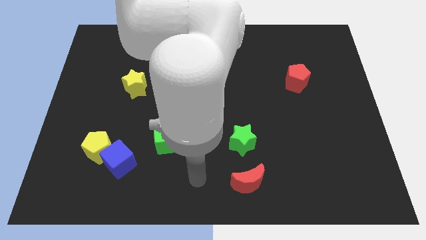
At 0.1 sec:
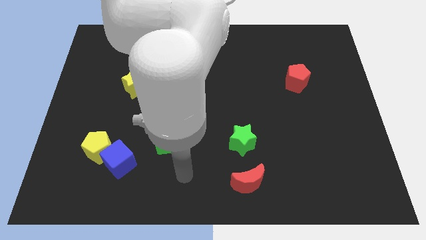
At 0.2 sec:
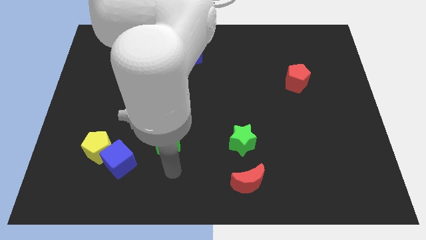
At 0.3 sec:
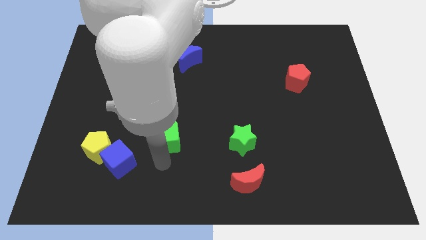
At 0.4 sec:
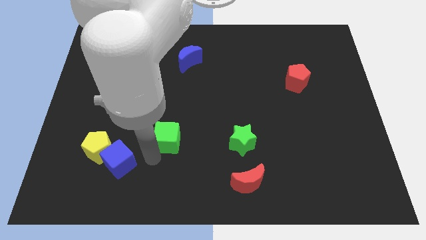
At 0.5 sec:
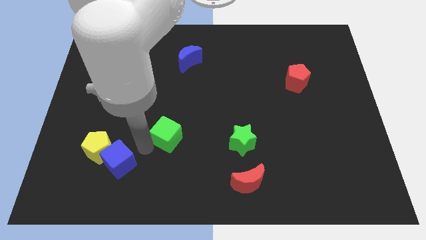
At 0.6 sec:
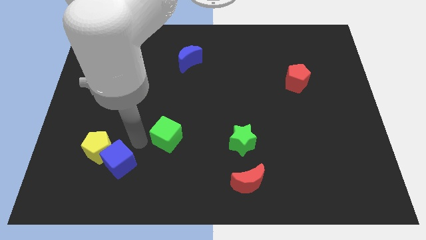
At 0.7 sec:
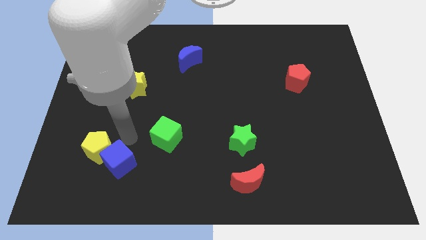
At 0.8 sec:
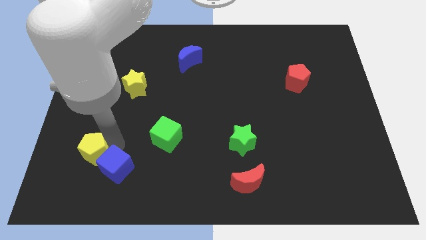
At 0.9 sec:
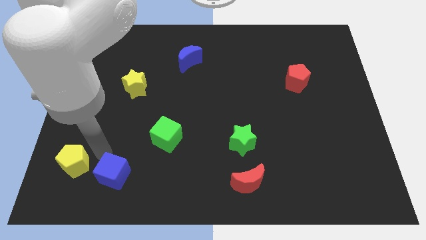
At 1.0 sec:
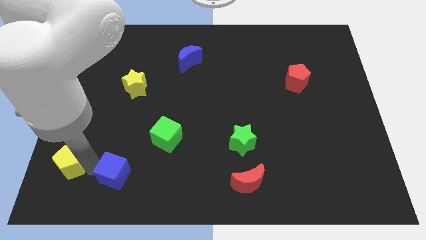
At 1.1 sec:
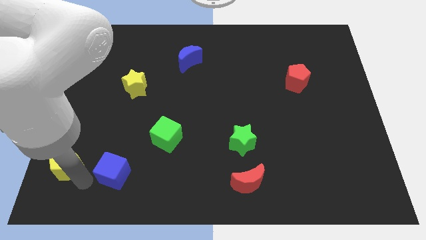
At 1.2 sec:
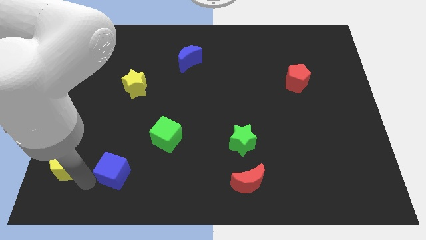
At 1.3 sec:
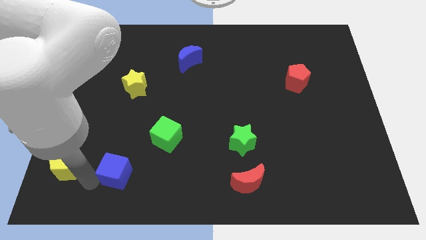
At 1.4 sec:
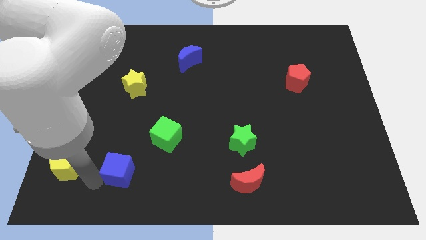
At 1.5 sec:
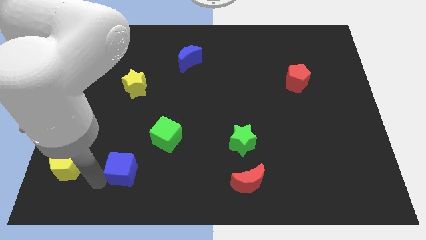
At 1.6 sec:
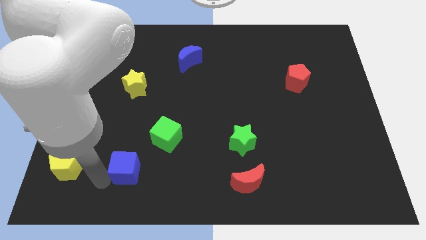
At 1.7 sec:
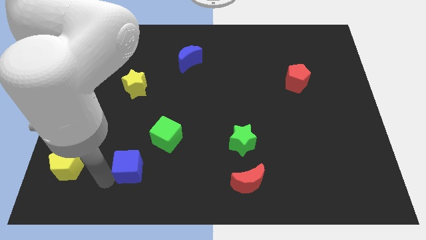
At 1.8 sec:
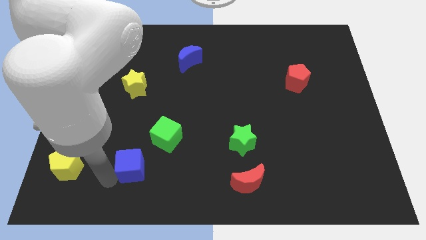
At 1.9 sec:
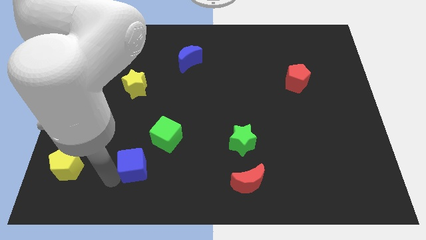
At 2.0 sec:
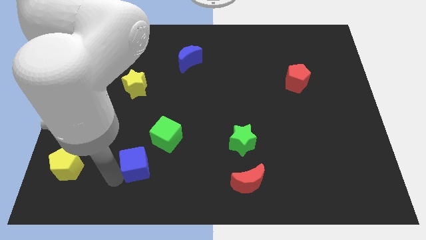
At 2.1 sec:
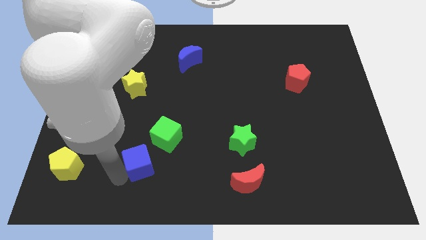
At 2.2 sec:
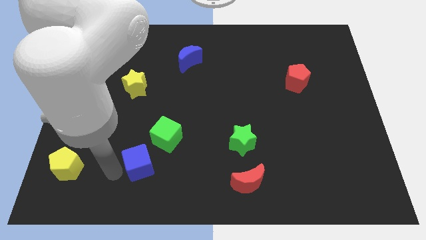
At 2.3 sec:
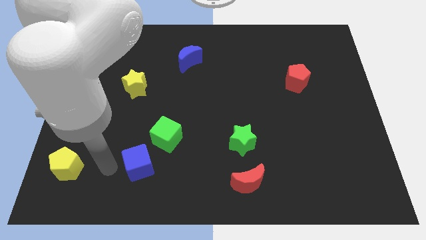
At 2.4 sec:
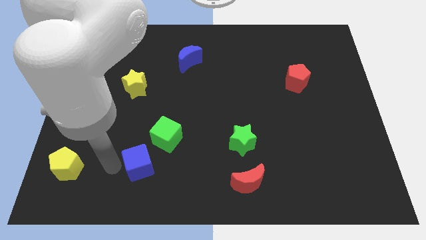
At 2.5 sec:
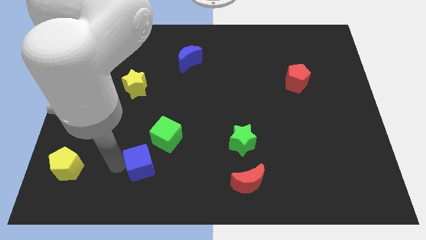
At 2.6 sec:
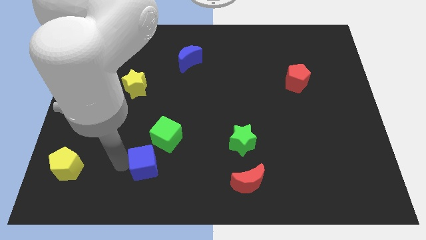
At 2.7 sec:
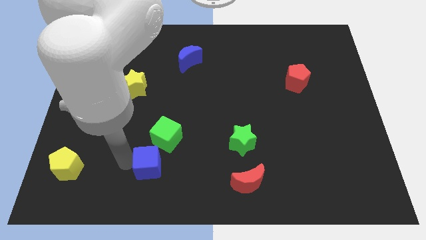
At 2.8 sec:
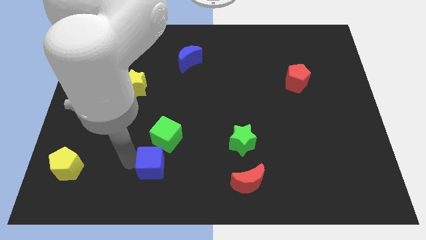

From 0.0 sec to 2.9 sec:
slightly push the blue cube to the right

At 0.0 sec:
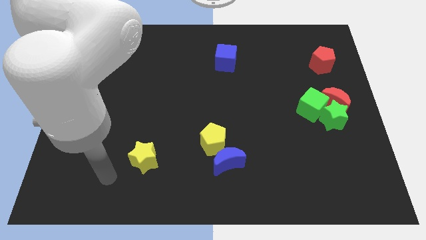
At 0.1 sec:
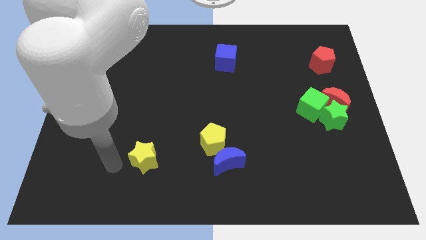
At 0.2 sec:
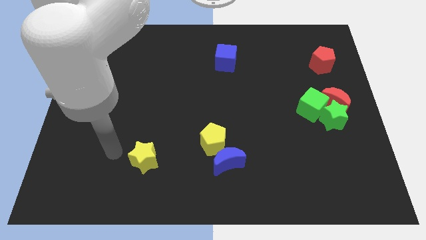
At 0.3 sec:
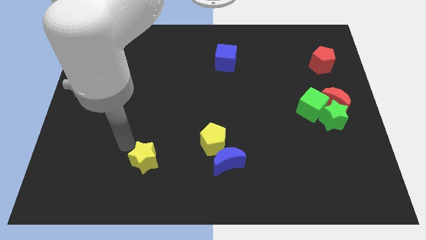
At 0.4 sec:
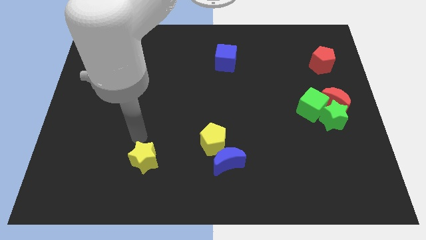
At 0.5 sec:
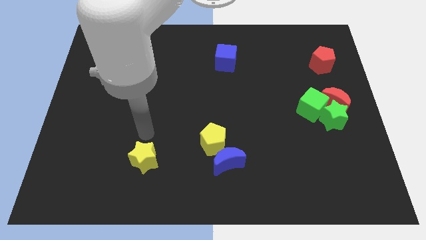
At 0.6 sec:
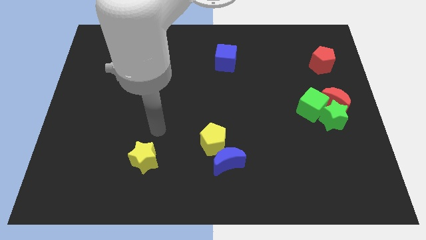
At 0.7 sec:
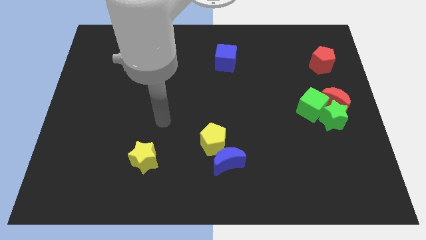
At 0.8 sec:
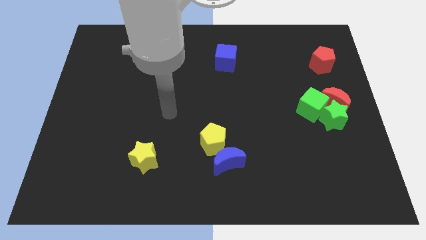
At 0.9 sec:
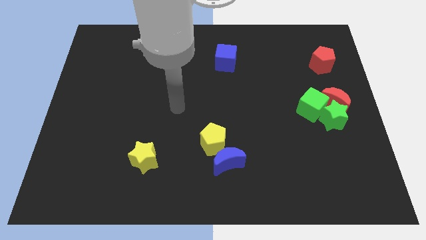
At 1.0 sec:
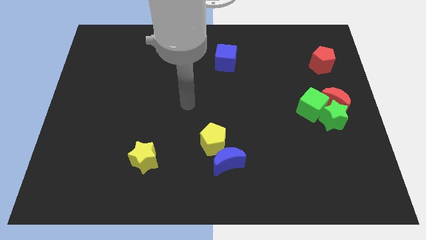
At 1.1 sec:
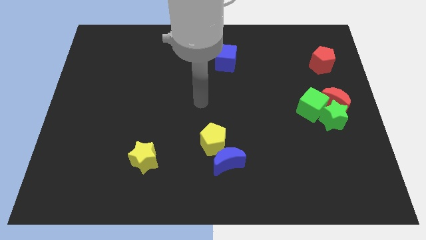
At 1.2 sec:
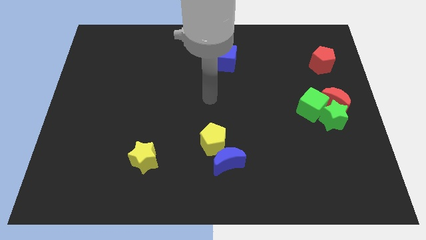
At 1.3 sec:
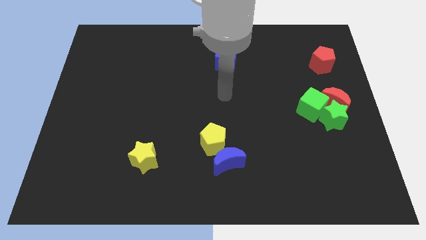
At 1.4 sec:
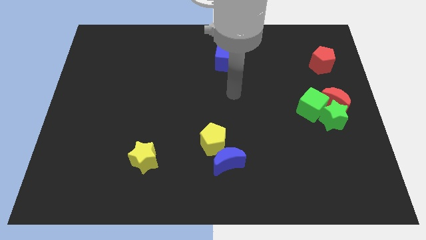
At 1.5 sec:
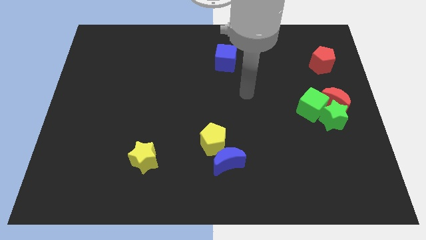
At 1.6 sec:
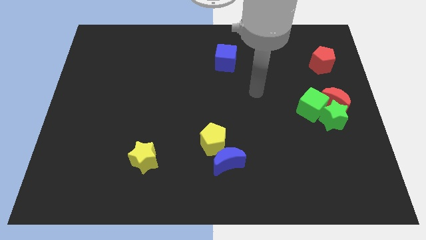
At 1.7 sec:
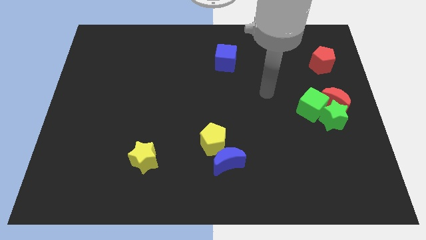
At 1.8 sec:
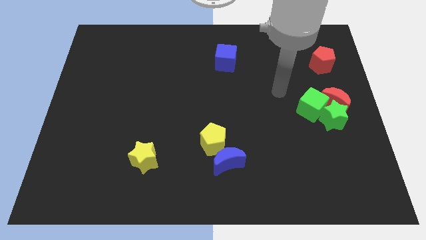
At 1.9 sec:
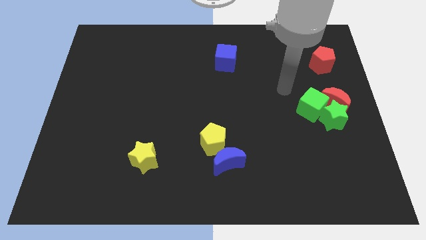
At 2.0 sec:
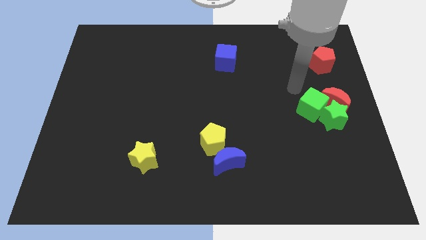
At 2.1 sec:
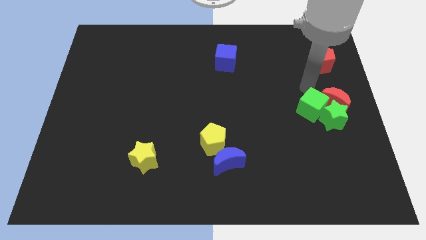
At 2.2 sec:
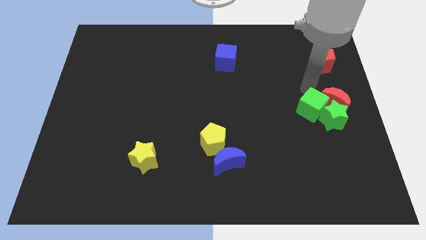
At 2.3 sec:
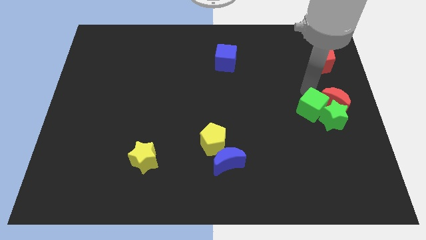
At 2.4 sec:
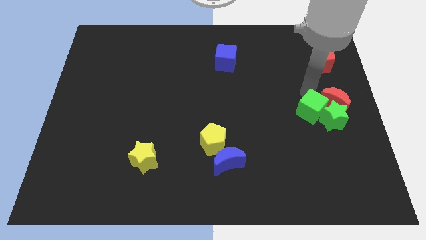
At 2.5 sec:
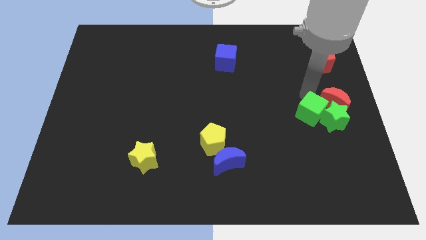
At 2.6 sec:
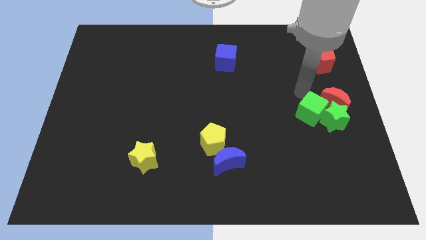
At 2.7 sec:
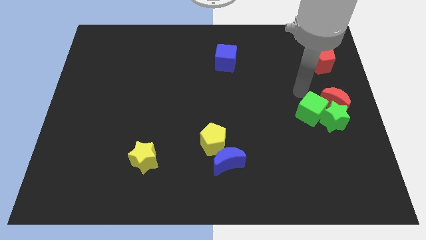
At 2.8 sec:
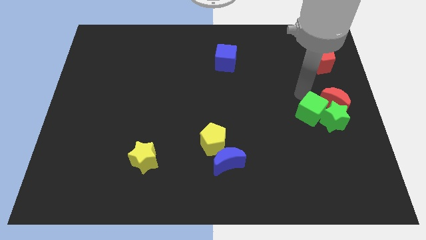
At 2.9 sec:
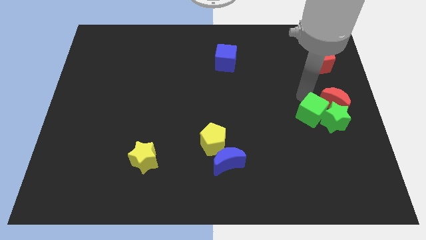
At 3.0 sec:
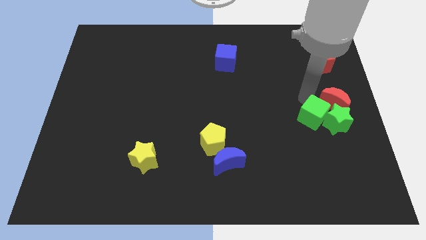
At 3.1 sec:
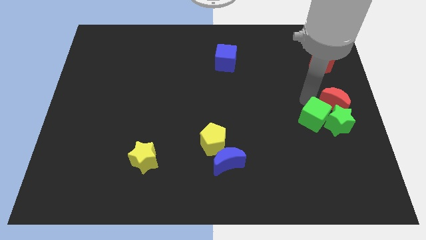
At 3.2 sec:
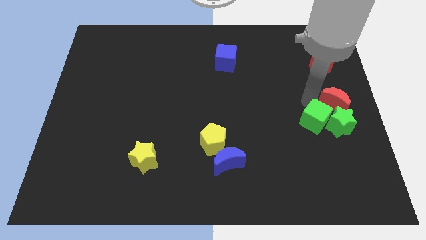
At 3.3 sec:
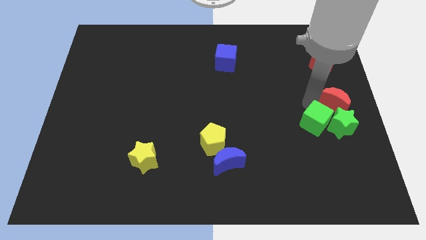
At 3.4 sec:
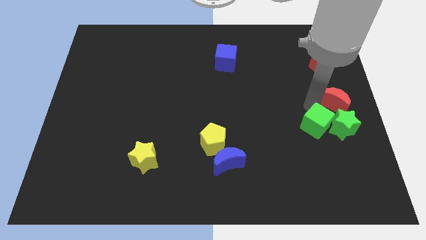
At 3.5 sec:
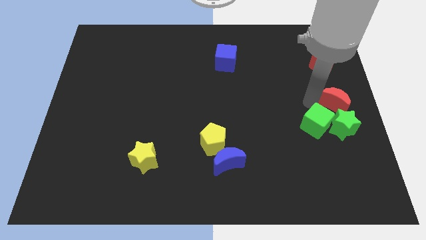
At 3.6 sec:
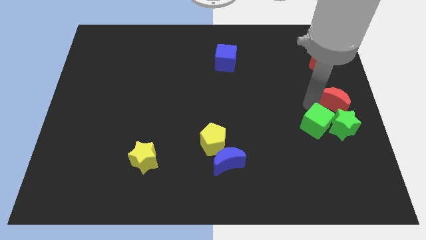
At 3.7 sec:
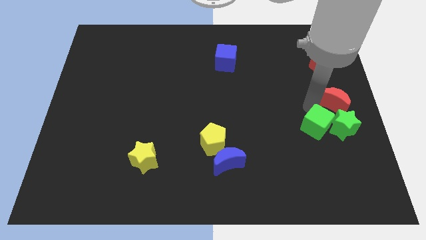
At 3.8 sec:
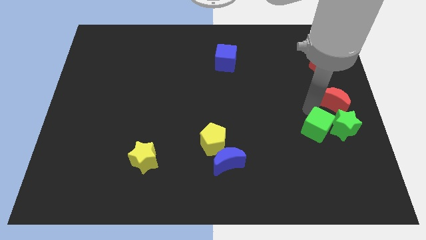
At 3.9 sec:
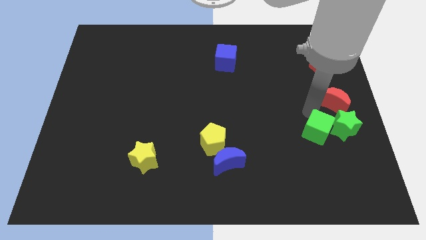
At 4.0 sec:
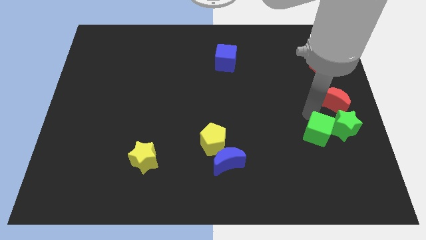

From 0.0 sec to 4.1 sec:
slide the green cube downwards slightly

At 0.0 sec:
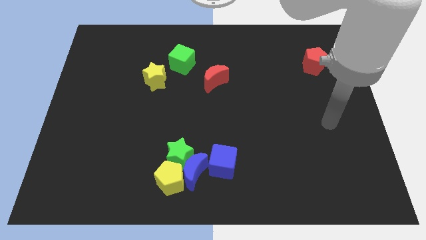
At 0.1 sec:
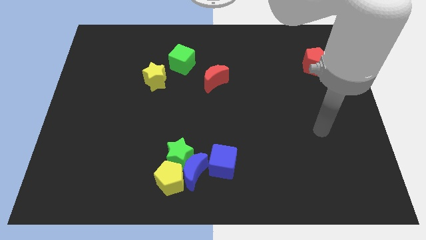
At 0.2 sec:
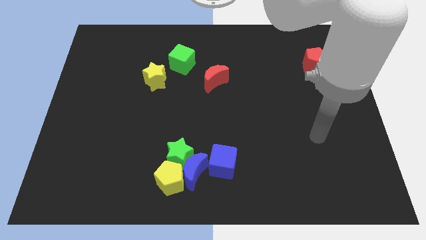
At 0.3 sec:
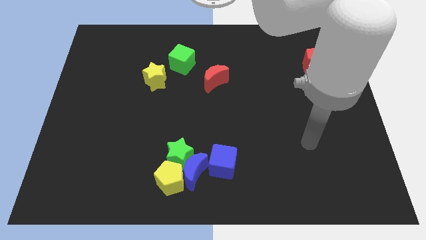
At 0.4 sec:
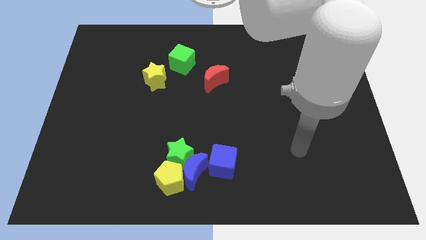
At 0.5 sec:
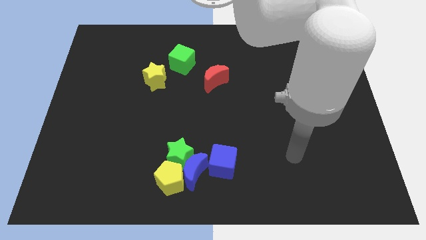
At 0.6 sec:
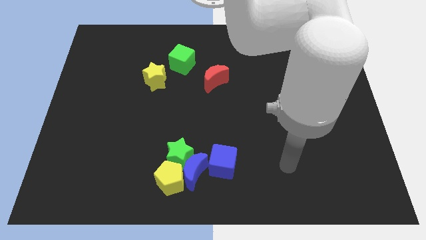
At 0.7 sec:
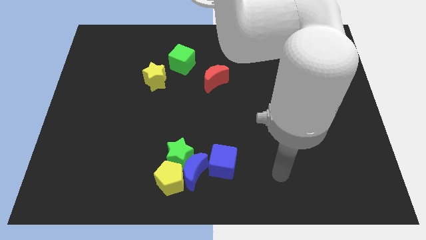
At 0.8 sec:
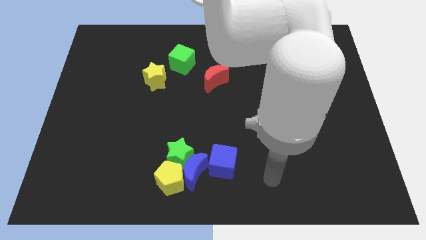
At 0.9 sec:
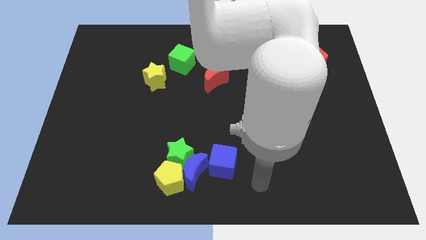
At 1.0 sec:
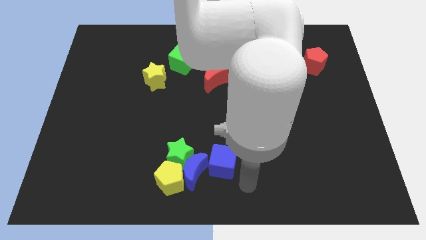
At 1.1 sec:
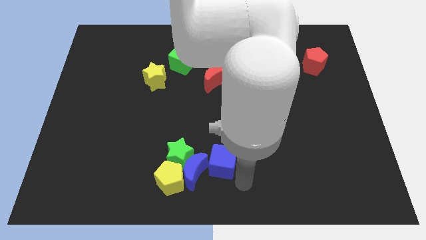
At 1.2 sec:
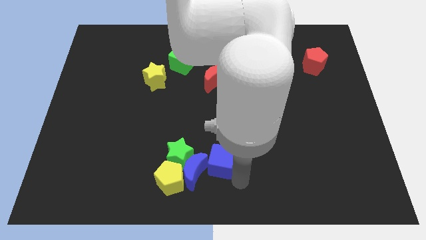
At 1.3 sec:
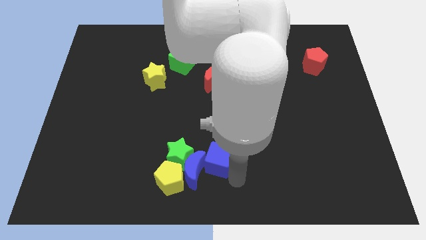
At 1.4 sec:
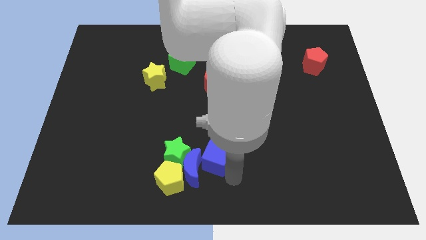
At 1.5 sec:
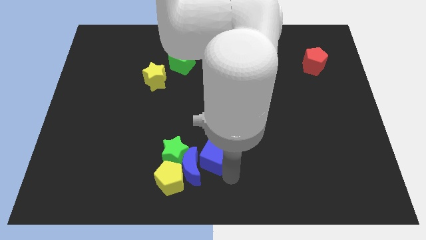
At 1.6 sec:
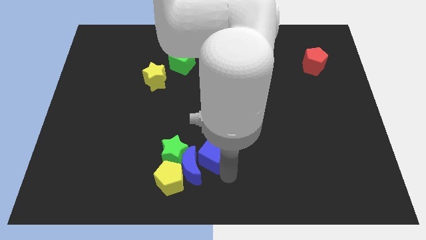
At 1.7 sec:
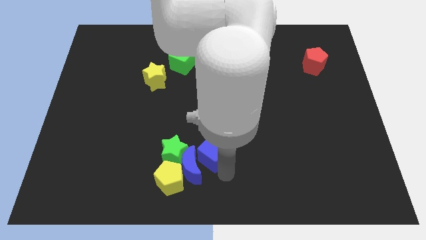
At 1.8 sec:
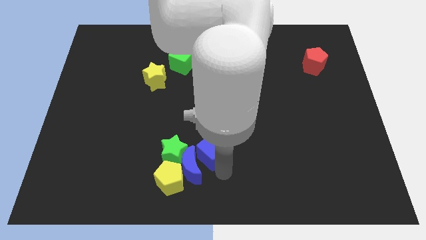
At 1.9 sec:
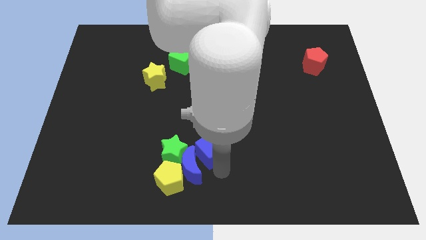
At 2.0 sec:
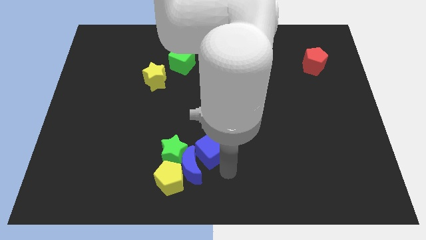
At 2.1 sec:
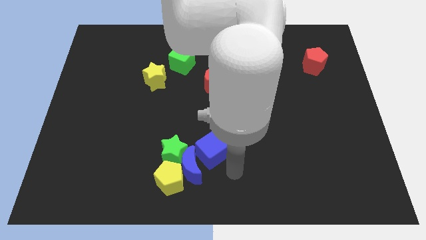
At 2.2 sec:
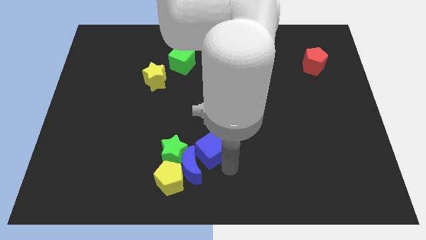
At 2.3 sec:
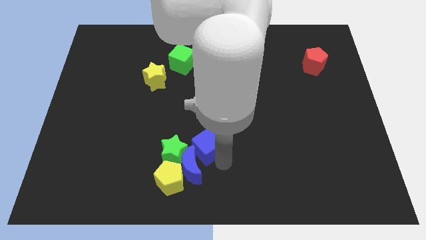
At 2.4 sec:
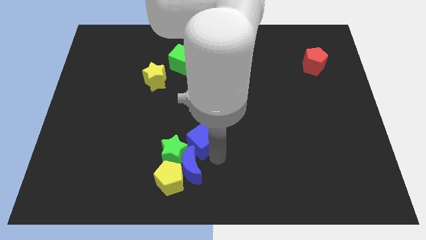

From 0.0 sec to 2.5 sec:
move the blue cube a bit diagonally up and to the left
